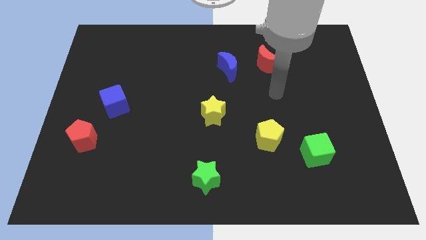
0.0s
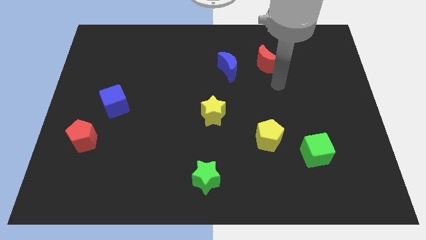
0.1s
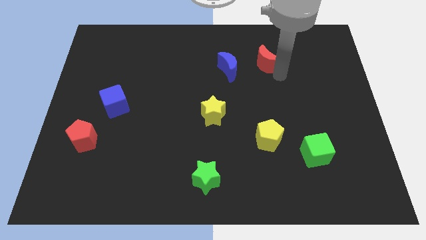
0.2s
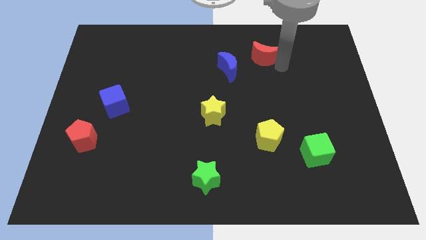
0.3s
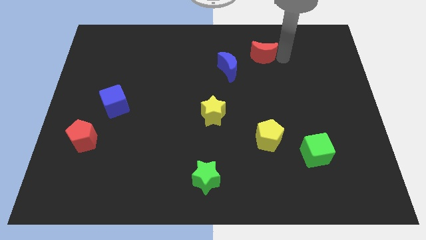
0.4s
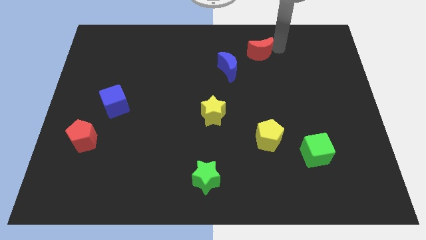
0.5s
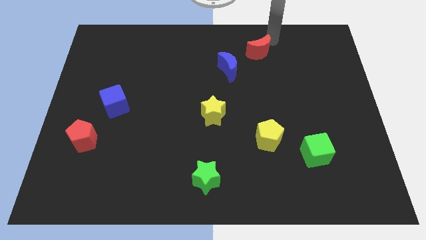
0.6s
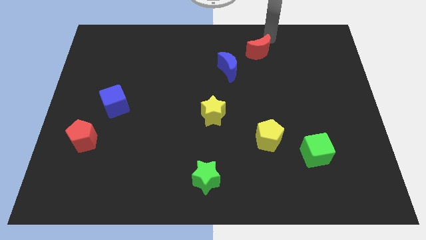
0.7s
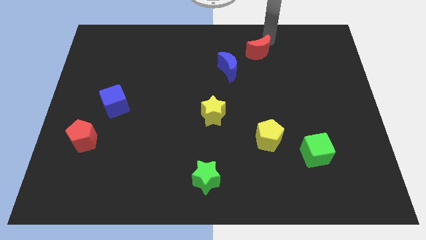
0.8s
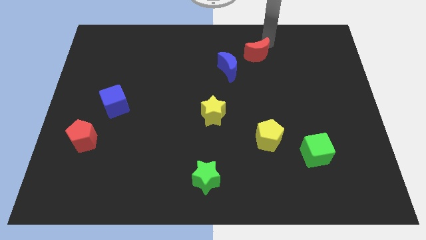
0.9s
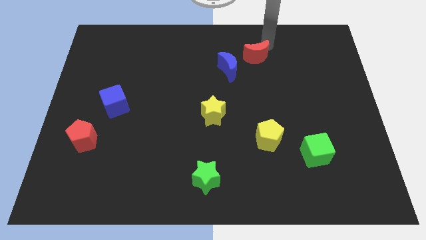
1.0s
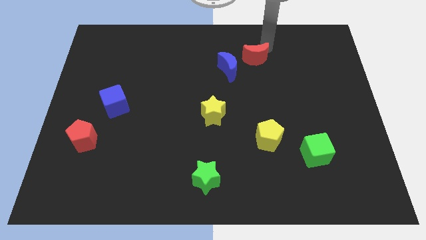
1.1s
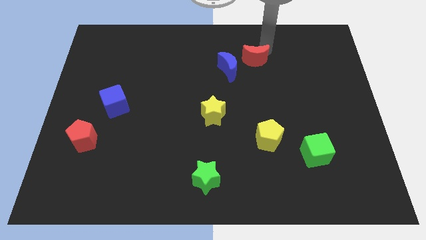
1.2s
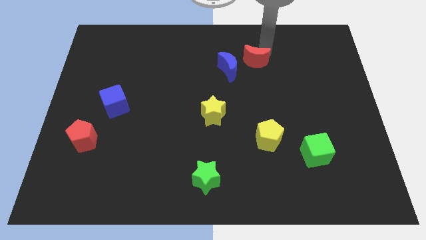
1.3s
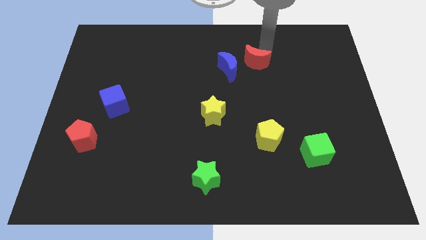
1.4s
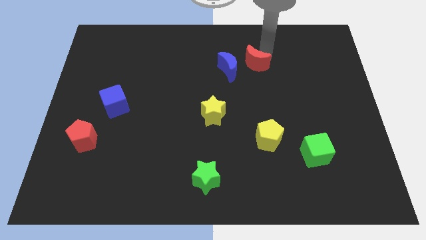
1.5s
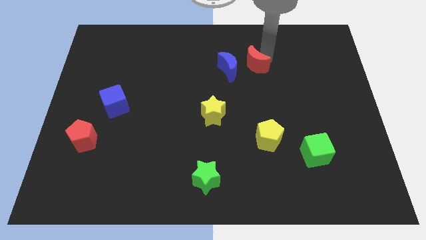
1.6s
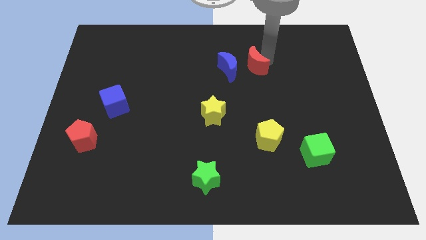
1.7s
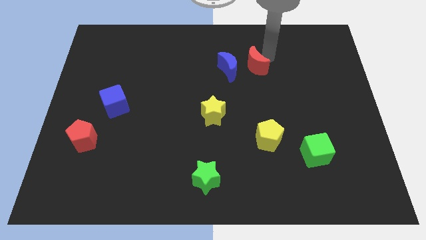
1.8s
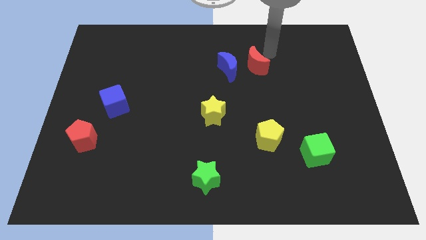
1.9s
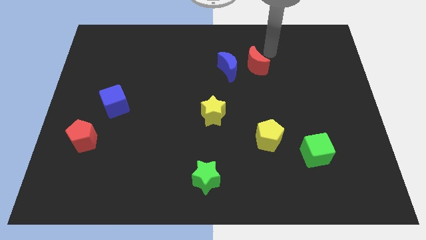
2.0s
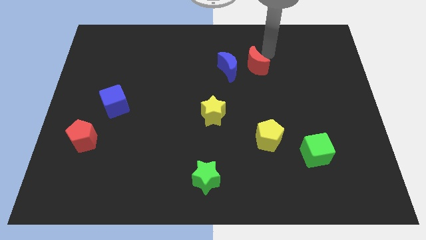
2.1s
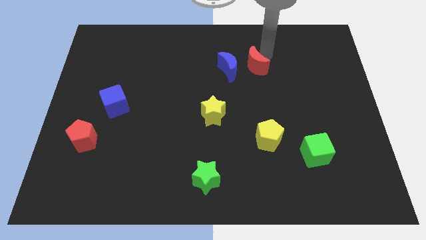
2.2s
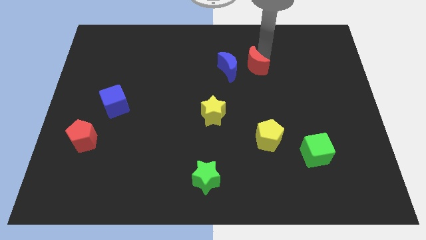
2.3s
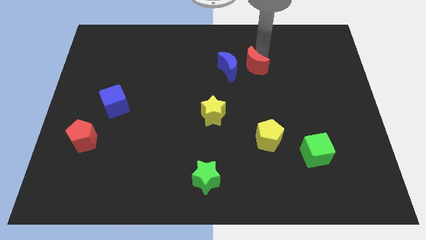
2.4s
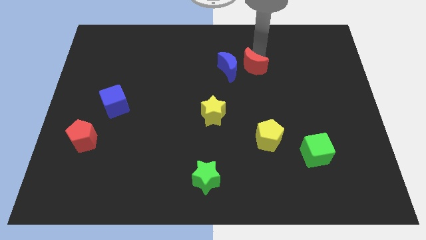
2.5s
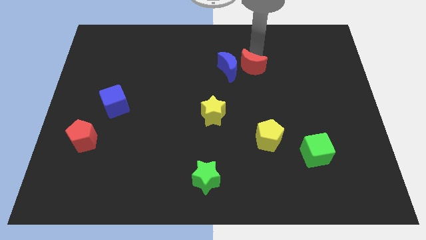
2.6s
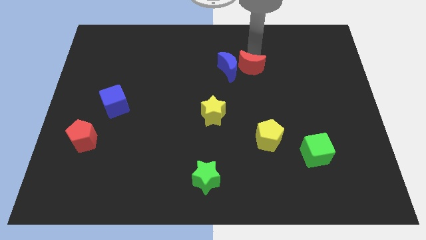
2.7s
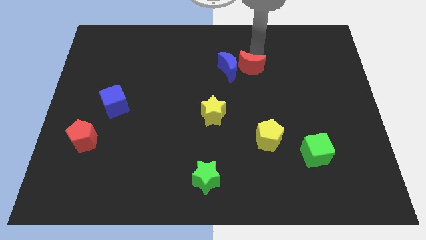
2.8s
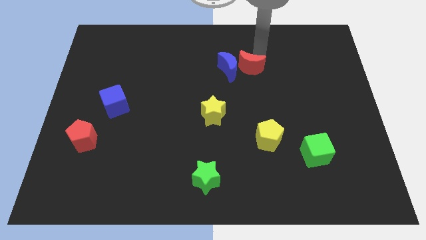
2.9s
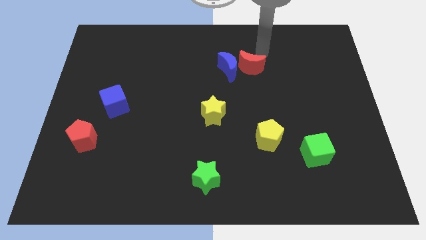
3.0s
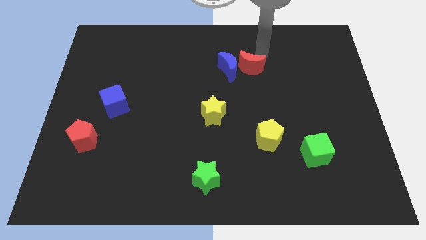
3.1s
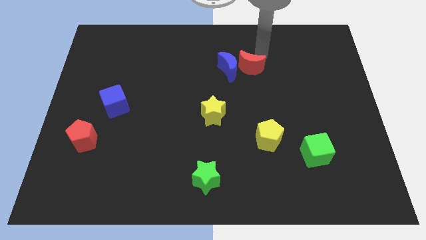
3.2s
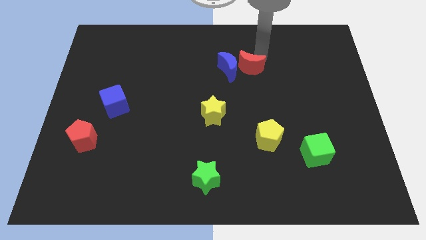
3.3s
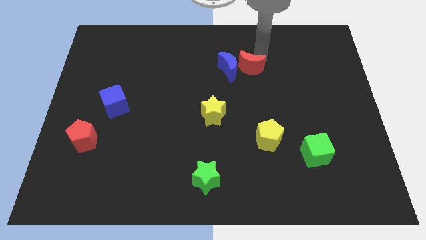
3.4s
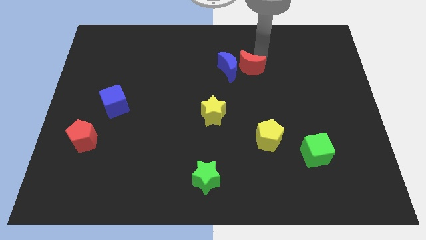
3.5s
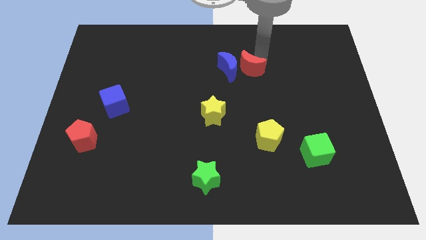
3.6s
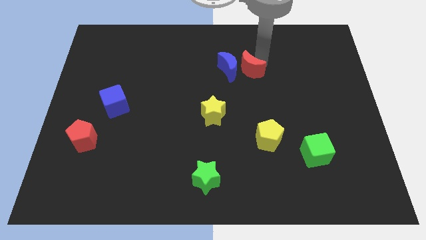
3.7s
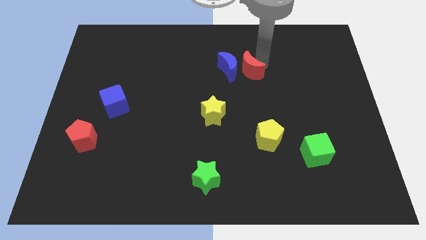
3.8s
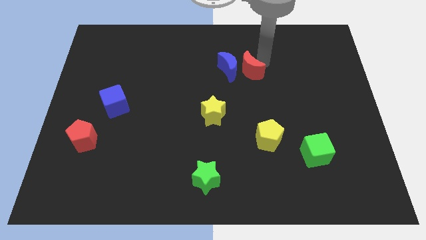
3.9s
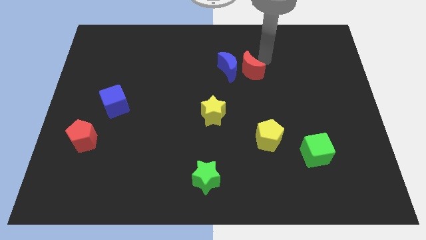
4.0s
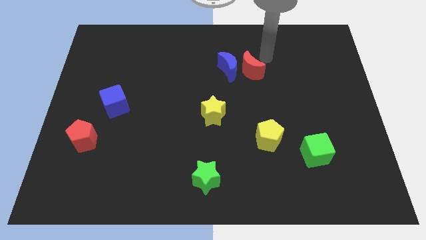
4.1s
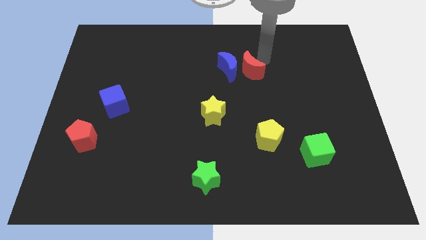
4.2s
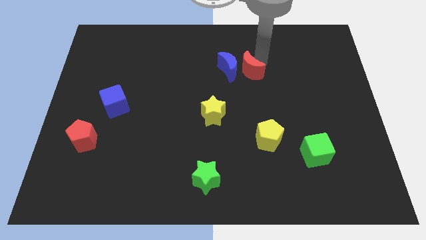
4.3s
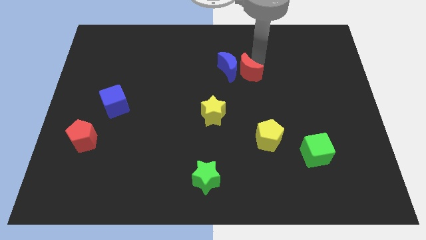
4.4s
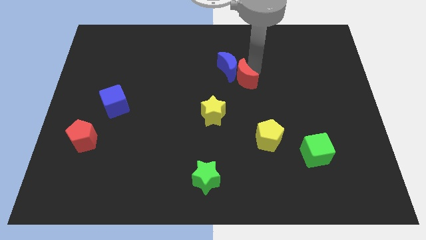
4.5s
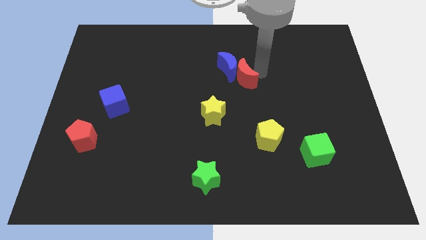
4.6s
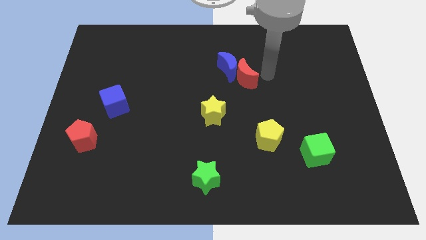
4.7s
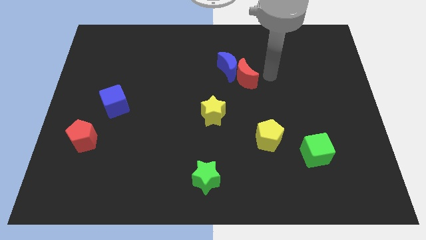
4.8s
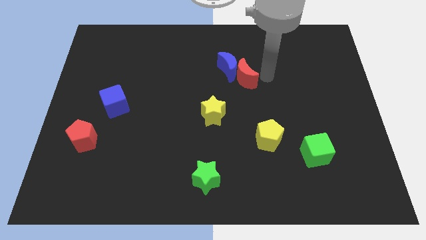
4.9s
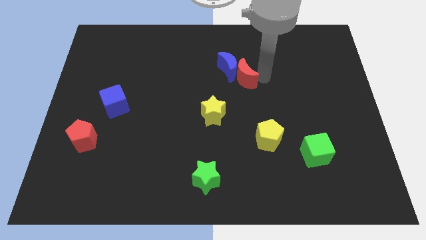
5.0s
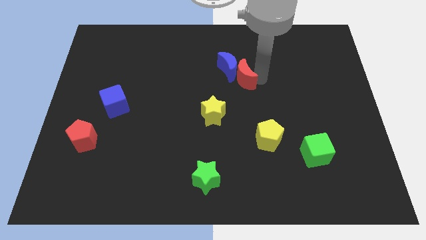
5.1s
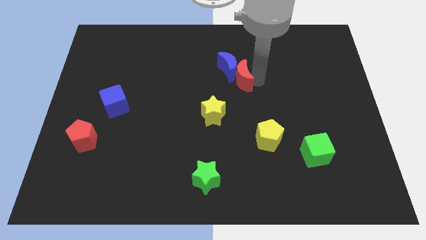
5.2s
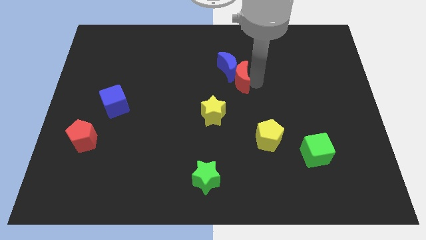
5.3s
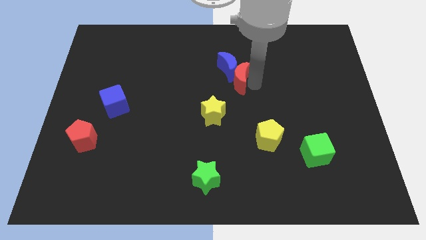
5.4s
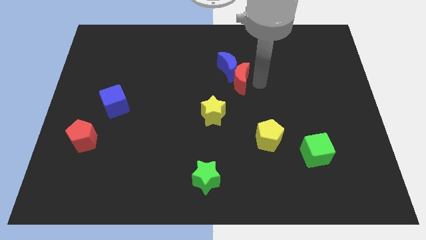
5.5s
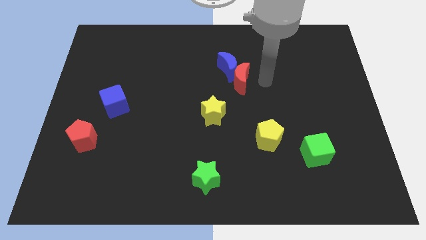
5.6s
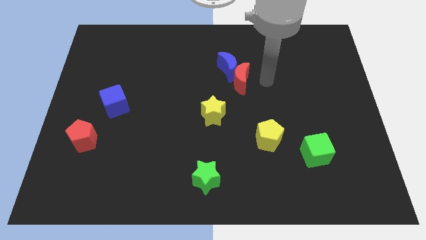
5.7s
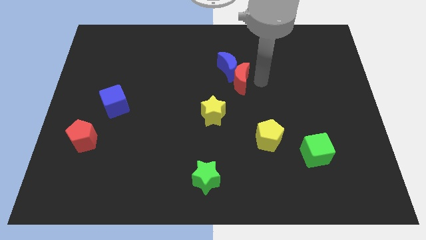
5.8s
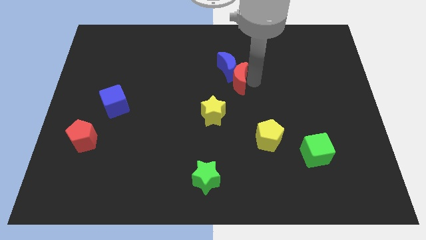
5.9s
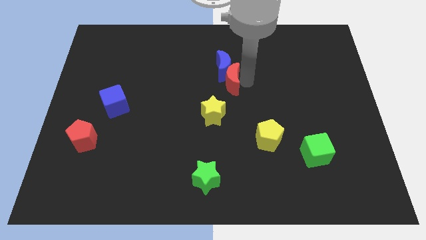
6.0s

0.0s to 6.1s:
put the red moon to the top side of the yellow star

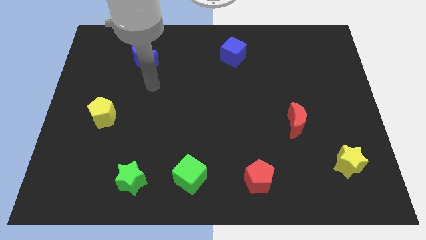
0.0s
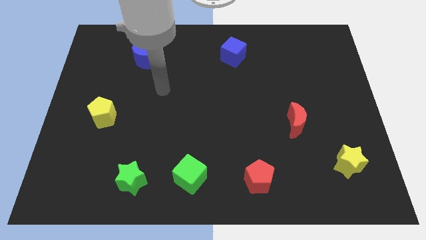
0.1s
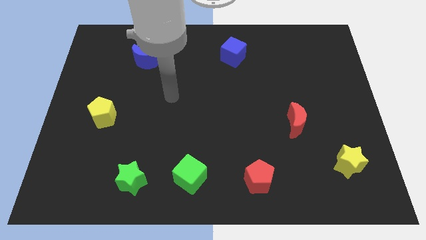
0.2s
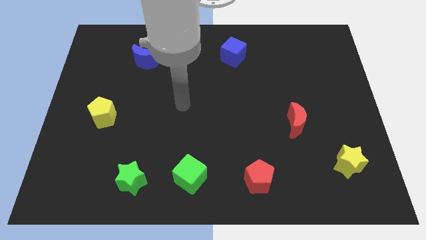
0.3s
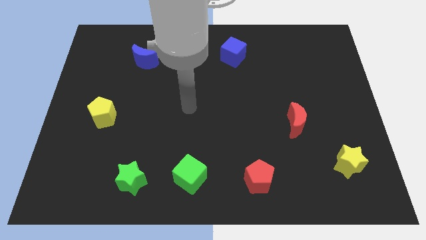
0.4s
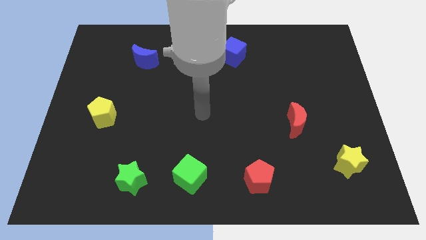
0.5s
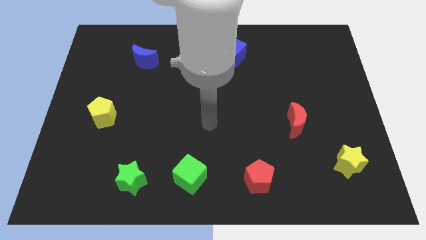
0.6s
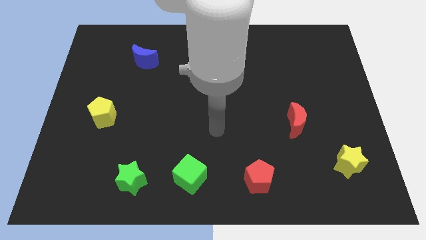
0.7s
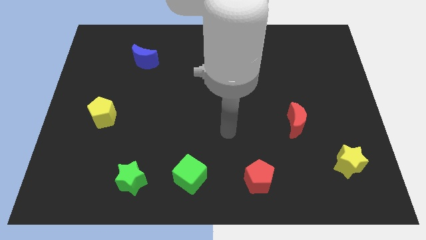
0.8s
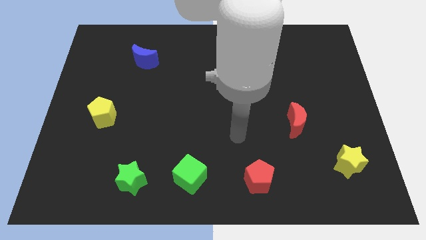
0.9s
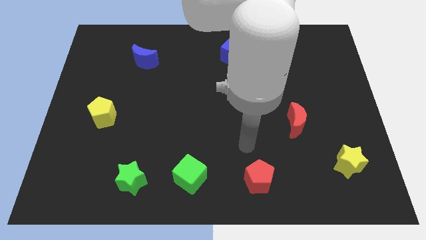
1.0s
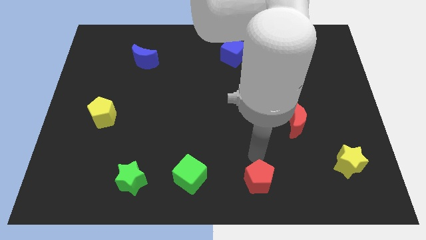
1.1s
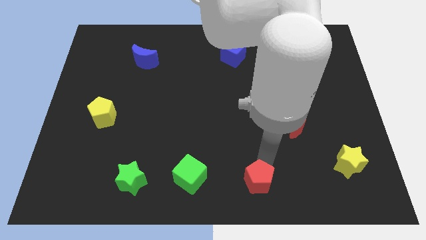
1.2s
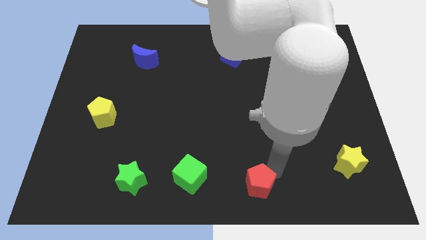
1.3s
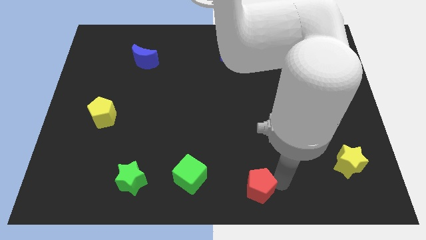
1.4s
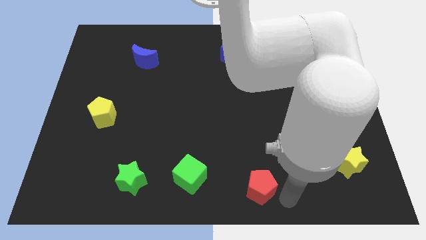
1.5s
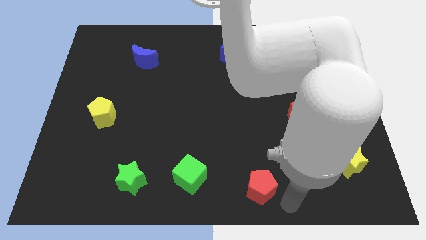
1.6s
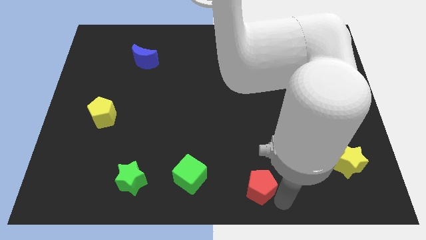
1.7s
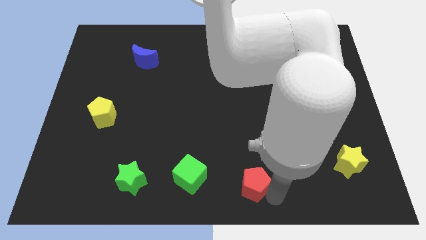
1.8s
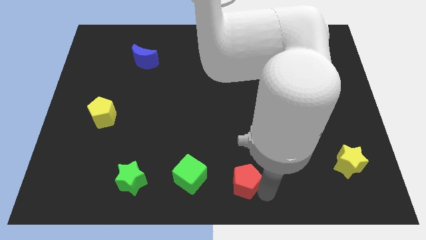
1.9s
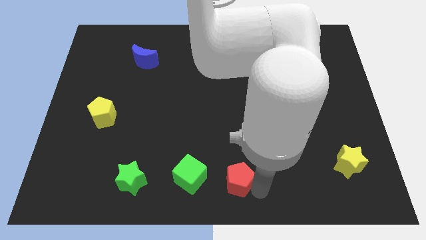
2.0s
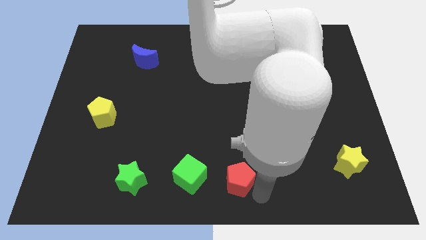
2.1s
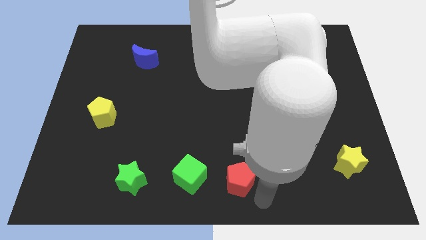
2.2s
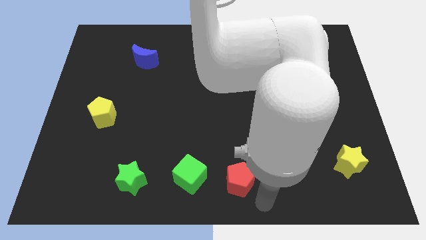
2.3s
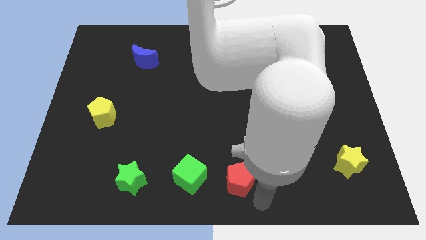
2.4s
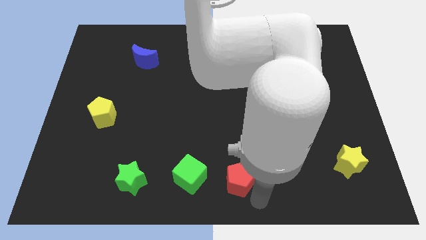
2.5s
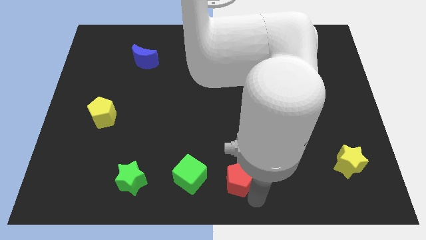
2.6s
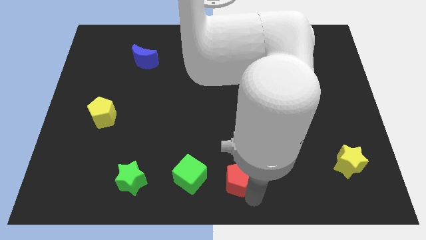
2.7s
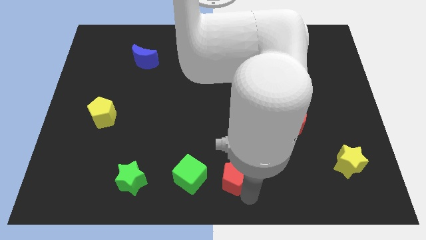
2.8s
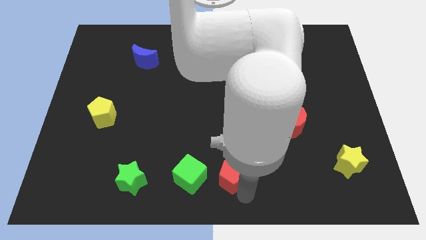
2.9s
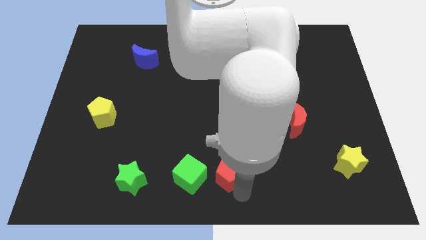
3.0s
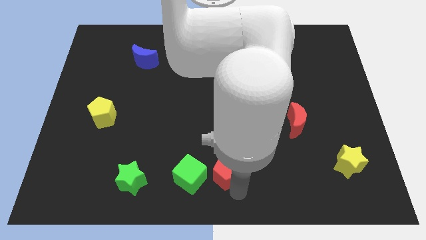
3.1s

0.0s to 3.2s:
slide the red pentagon to the top right of the green cube
